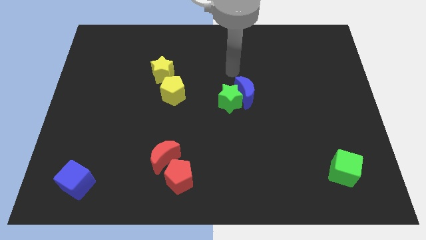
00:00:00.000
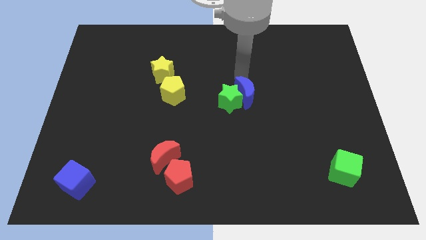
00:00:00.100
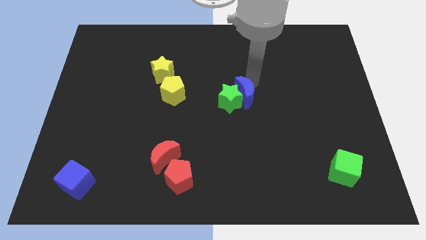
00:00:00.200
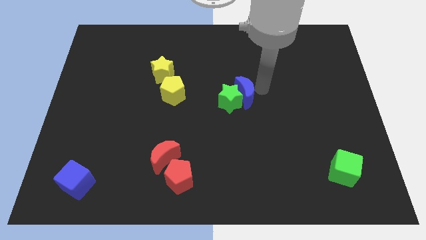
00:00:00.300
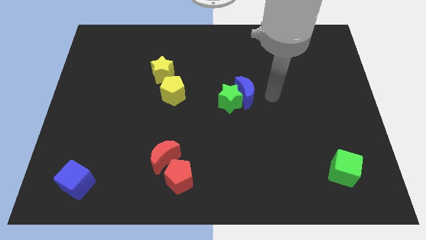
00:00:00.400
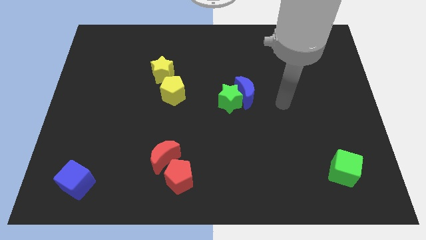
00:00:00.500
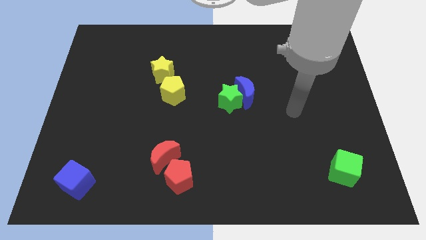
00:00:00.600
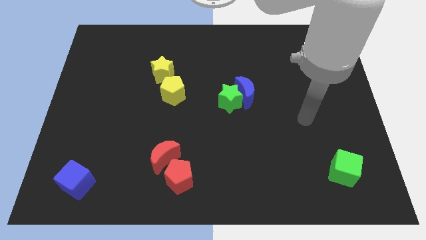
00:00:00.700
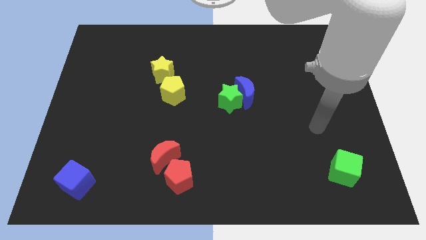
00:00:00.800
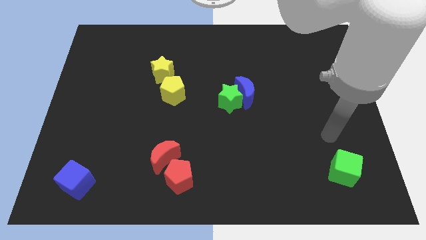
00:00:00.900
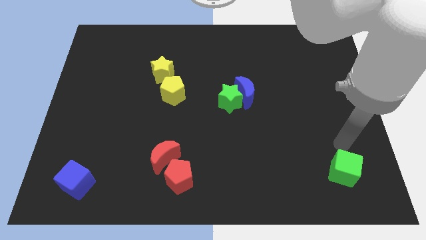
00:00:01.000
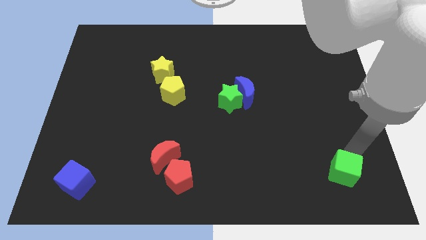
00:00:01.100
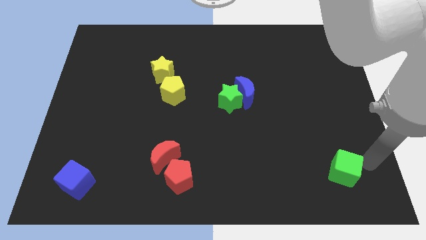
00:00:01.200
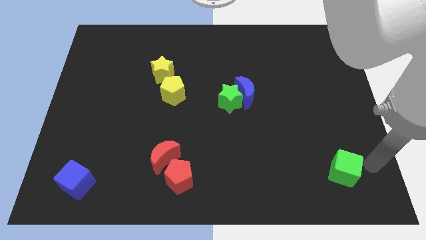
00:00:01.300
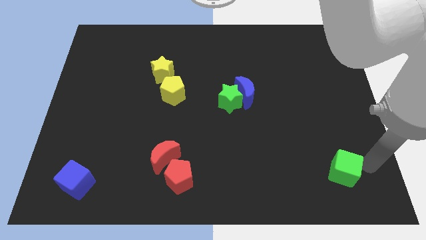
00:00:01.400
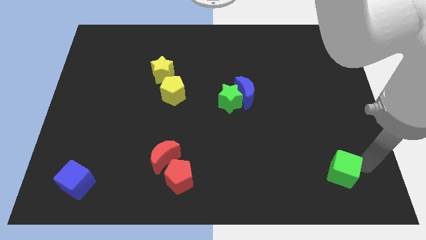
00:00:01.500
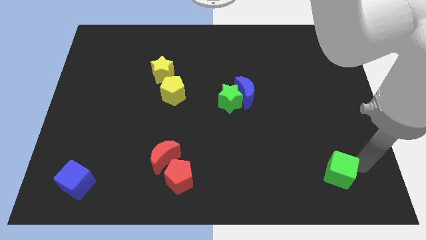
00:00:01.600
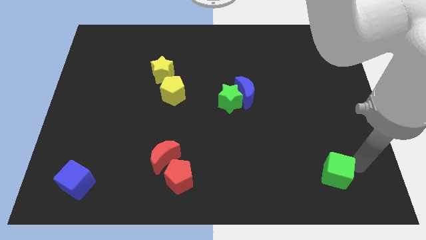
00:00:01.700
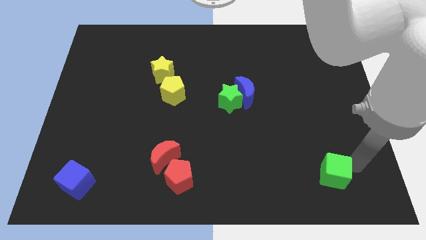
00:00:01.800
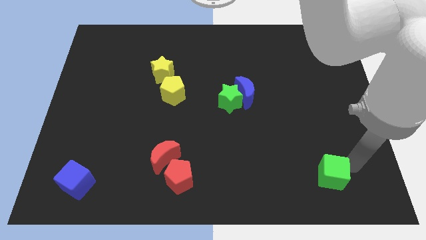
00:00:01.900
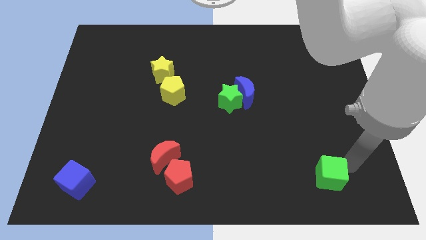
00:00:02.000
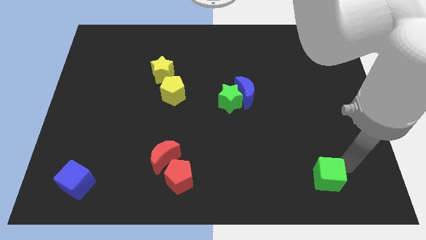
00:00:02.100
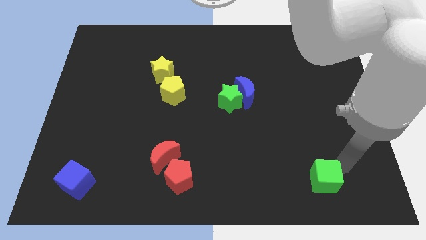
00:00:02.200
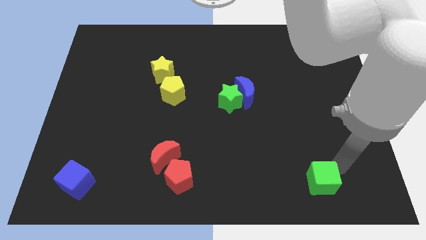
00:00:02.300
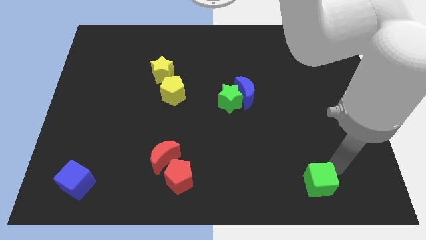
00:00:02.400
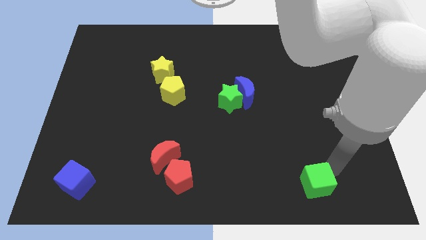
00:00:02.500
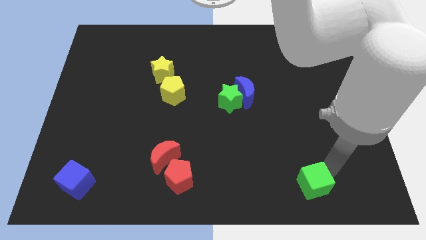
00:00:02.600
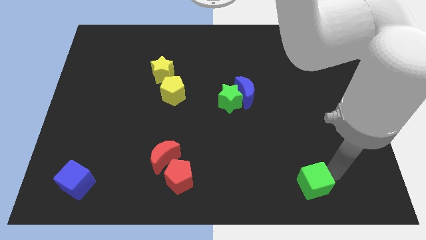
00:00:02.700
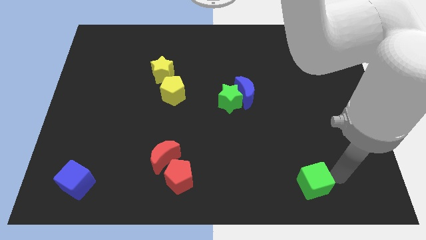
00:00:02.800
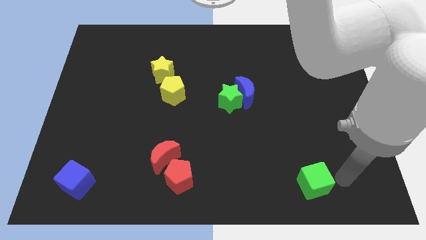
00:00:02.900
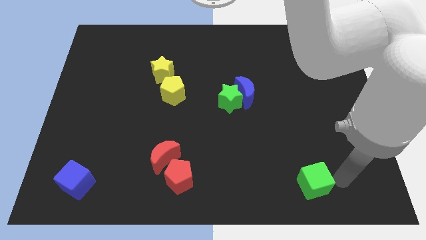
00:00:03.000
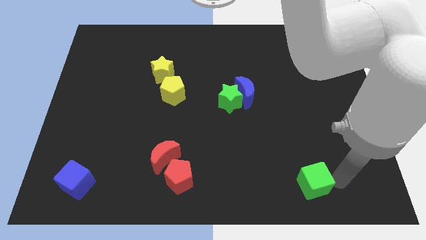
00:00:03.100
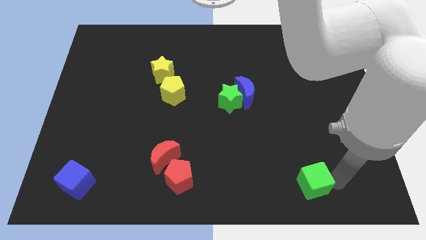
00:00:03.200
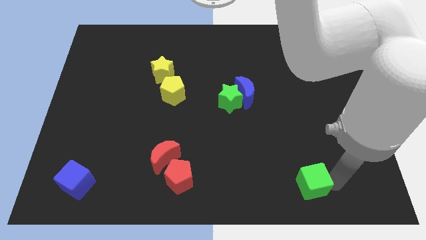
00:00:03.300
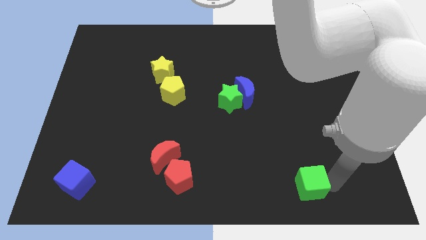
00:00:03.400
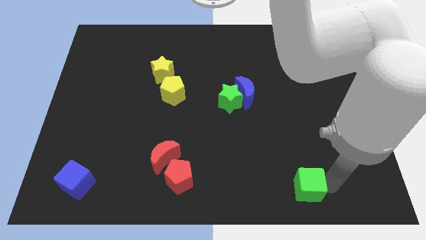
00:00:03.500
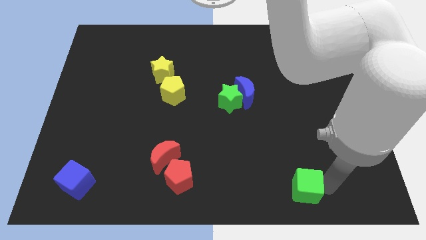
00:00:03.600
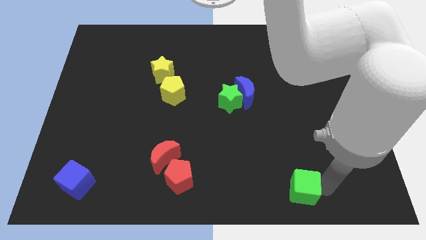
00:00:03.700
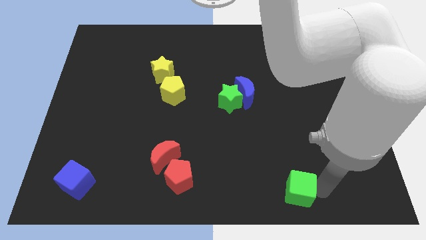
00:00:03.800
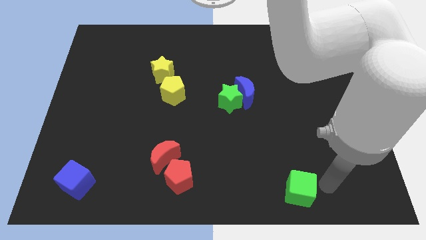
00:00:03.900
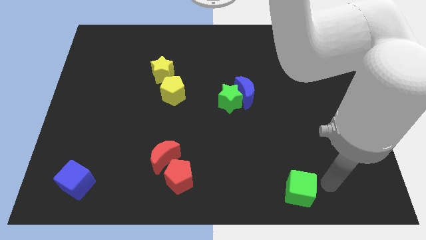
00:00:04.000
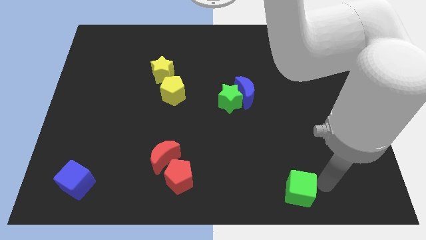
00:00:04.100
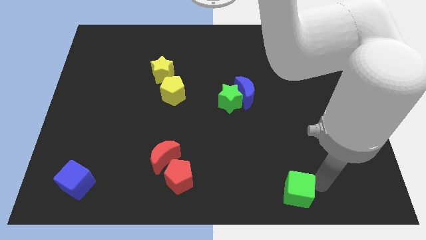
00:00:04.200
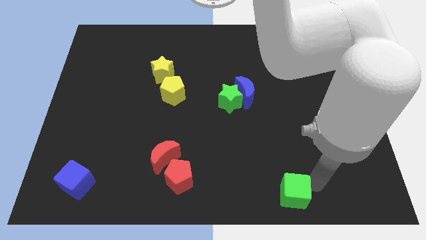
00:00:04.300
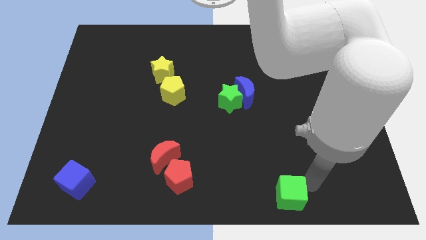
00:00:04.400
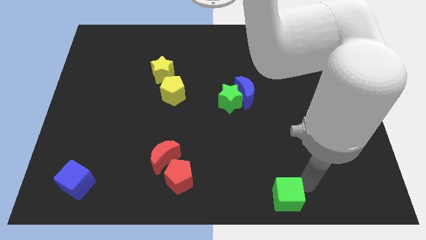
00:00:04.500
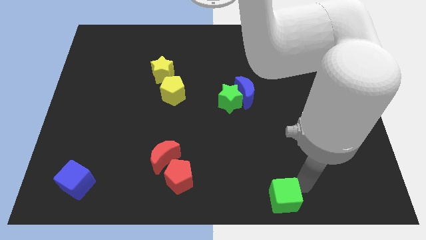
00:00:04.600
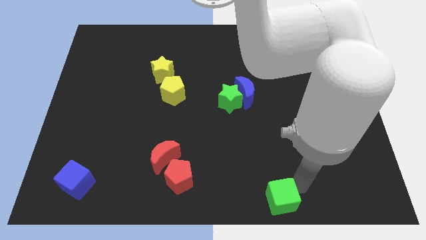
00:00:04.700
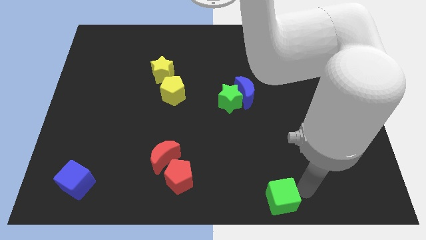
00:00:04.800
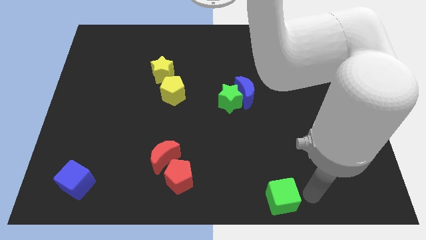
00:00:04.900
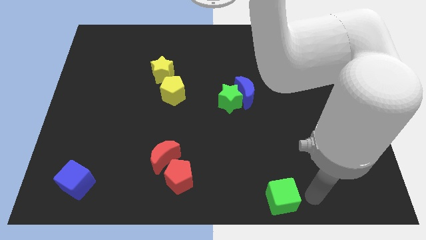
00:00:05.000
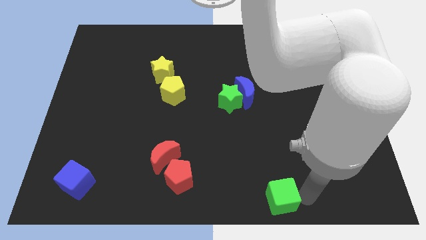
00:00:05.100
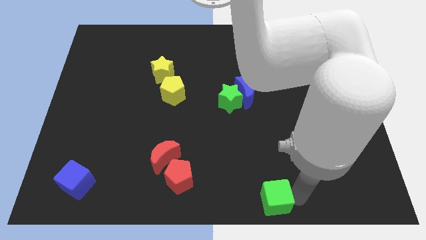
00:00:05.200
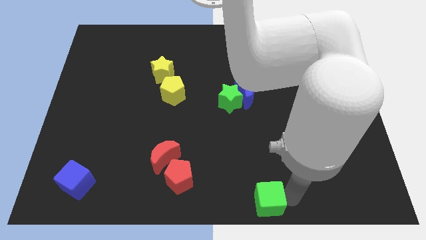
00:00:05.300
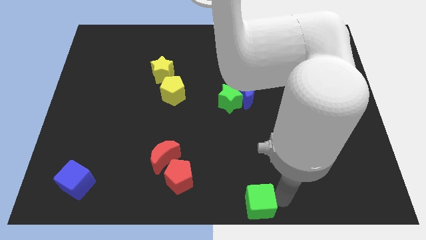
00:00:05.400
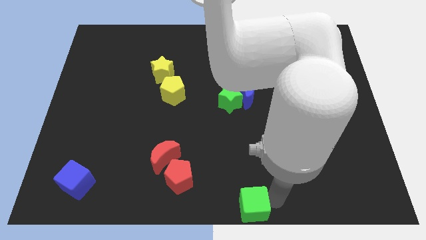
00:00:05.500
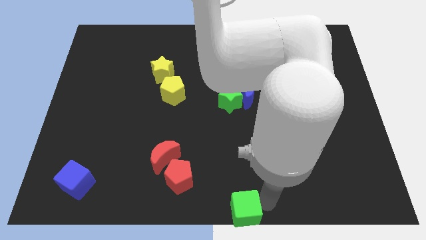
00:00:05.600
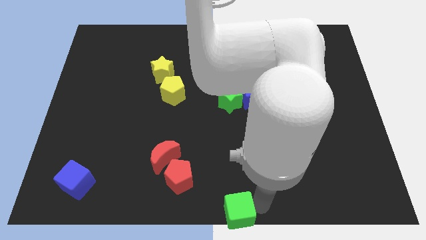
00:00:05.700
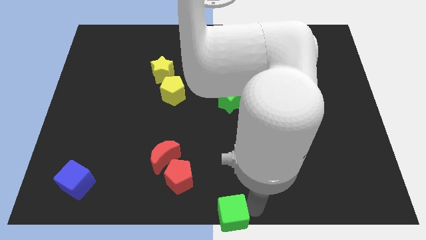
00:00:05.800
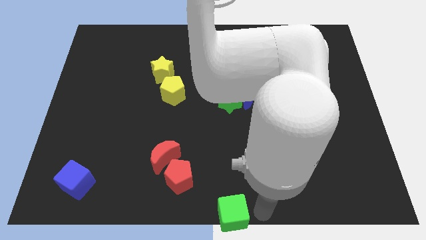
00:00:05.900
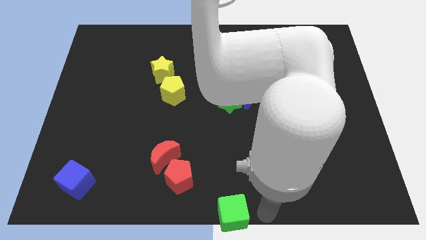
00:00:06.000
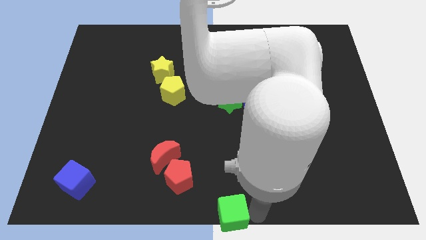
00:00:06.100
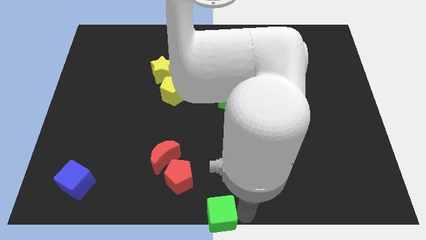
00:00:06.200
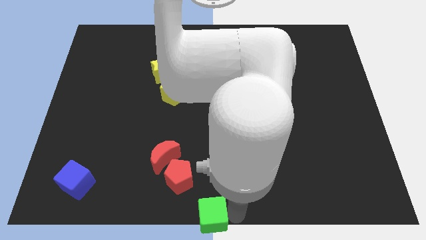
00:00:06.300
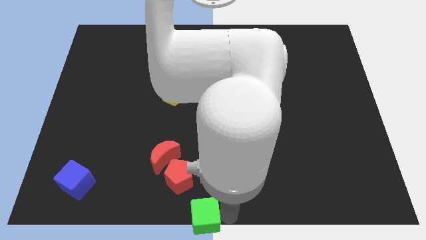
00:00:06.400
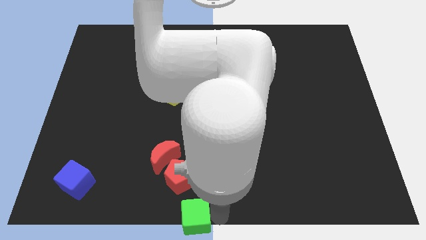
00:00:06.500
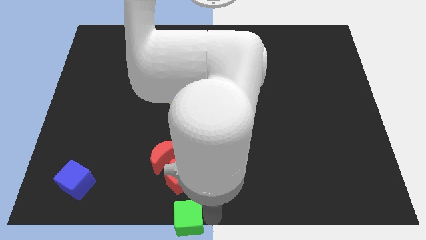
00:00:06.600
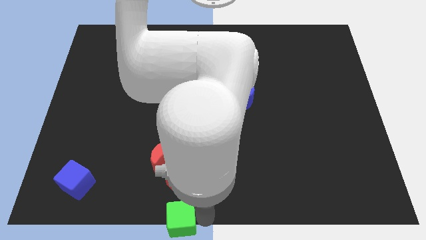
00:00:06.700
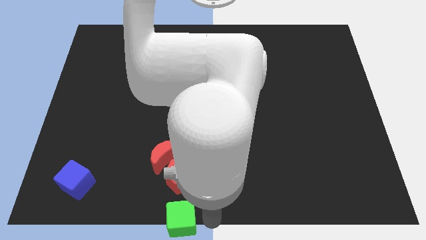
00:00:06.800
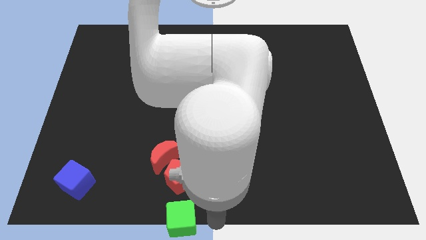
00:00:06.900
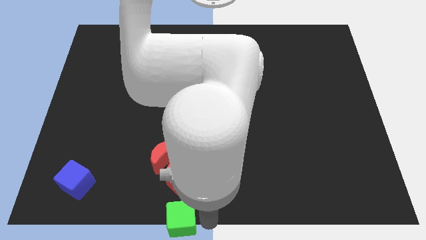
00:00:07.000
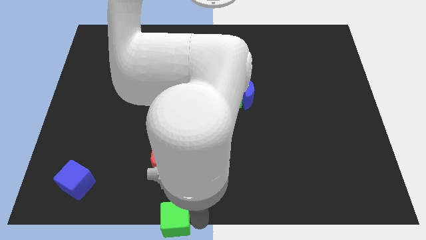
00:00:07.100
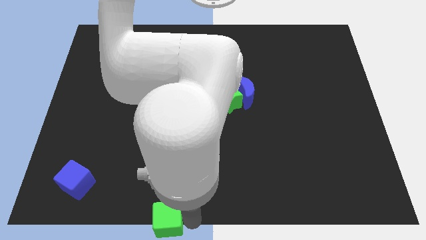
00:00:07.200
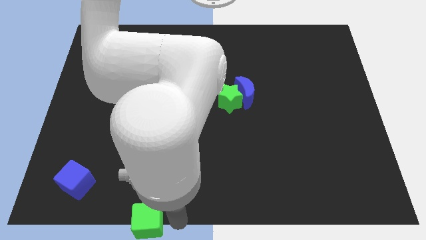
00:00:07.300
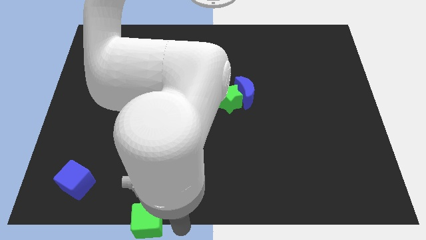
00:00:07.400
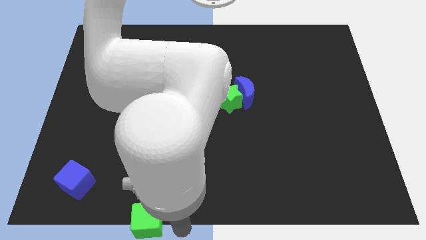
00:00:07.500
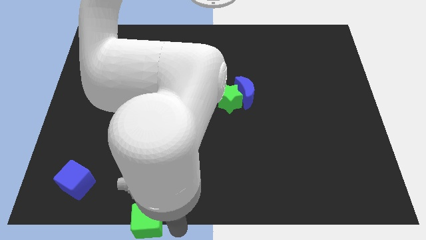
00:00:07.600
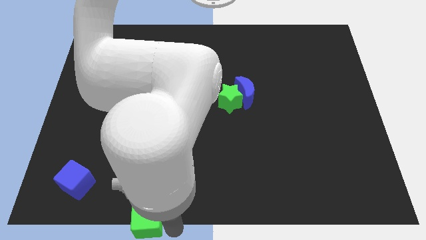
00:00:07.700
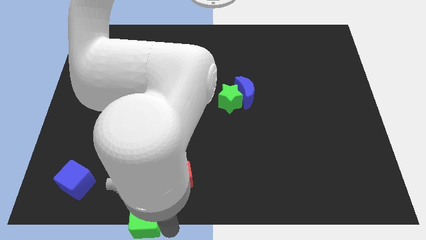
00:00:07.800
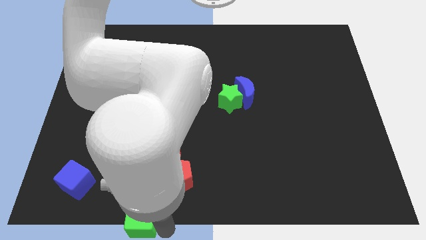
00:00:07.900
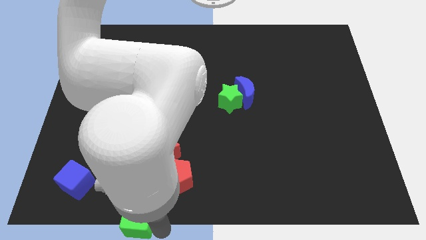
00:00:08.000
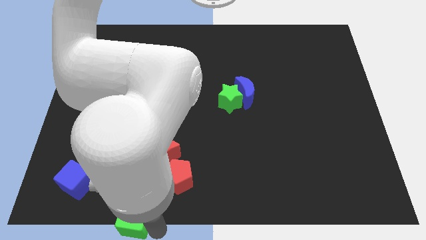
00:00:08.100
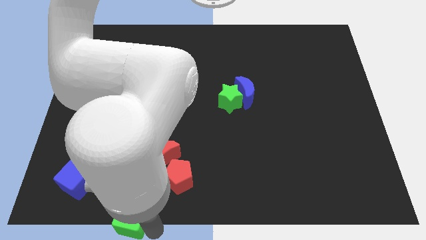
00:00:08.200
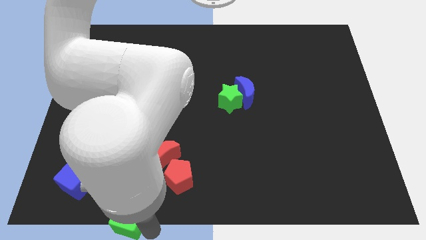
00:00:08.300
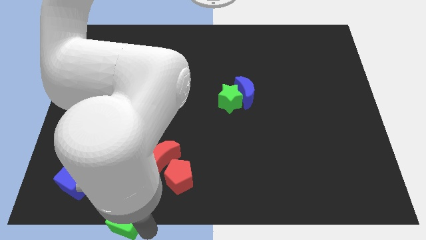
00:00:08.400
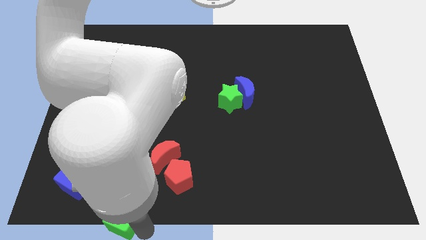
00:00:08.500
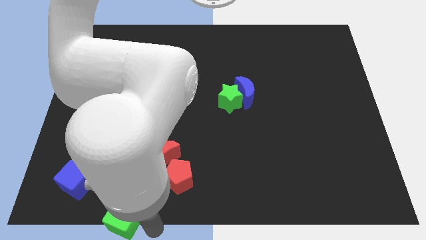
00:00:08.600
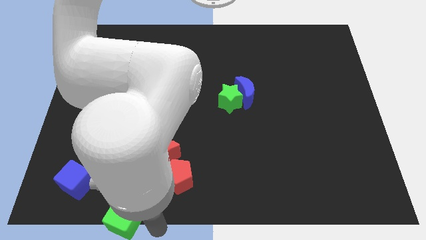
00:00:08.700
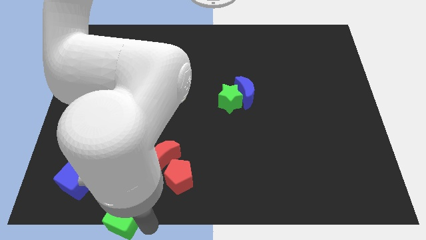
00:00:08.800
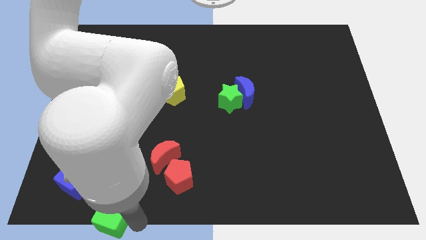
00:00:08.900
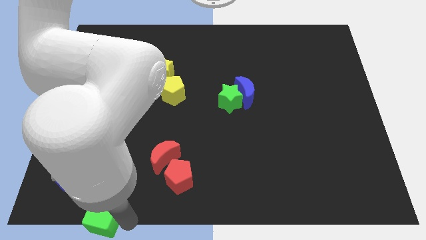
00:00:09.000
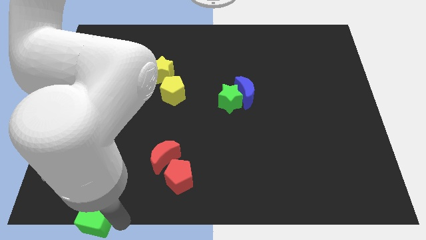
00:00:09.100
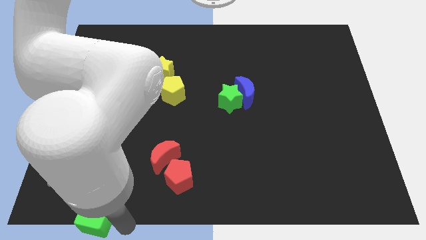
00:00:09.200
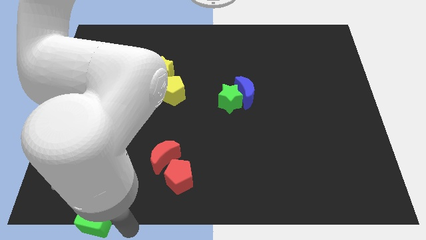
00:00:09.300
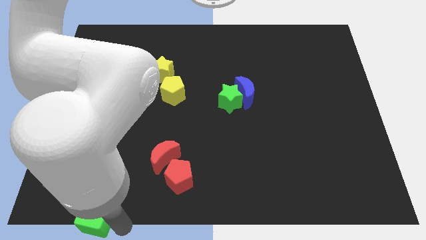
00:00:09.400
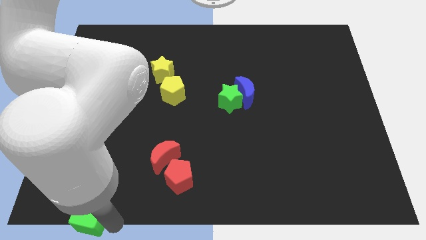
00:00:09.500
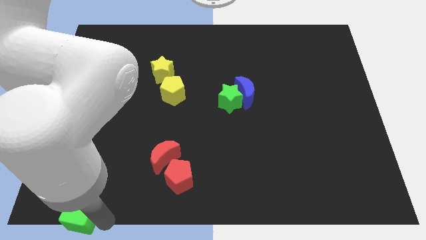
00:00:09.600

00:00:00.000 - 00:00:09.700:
slide the green cube to the lower left corner
